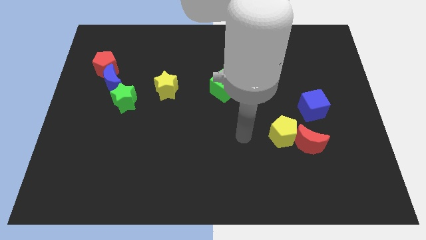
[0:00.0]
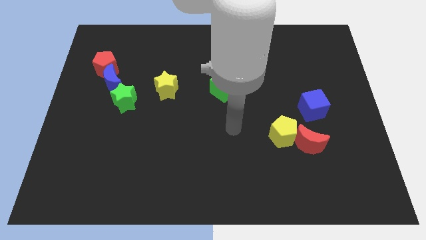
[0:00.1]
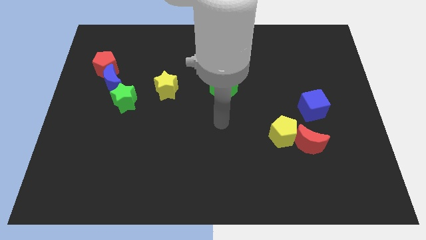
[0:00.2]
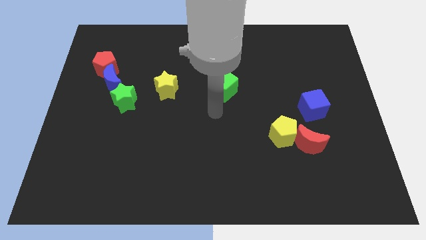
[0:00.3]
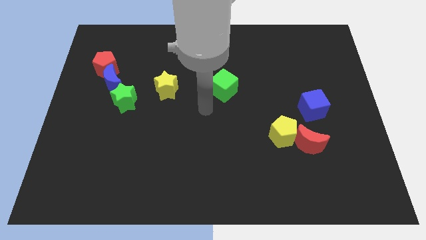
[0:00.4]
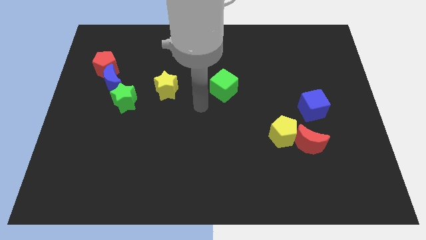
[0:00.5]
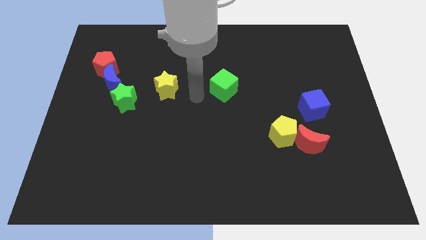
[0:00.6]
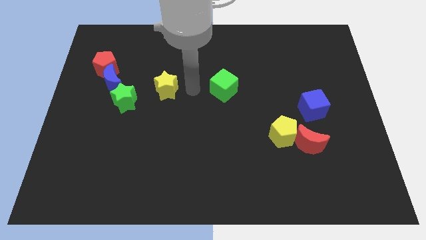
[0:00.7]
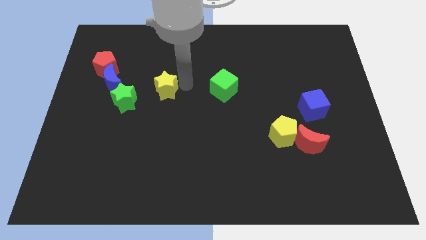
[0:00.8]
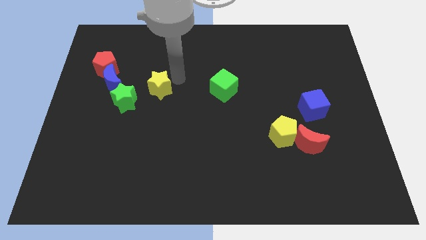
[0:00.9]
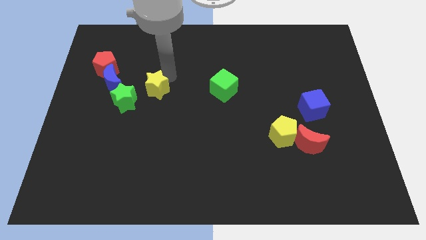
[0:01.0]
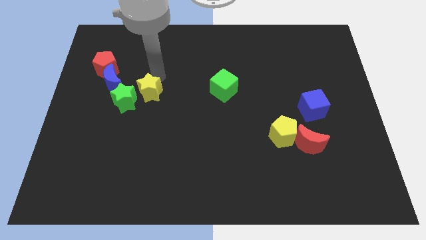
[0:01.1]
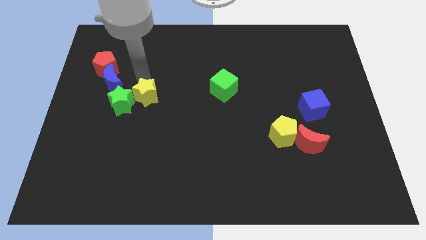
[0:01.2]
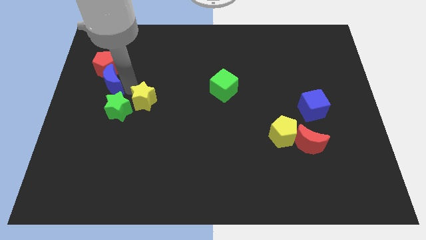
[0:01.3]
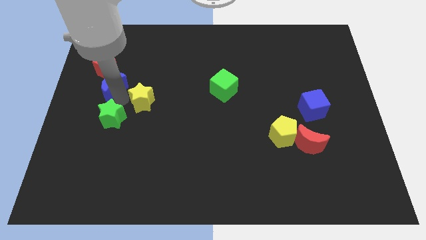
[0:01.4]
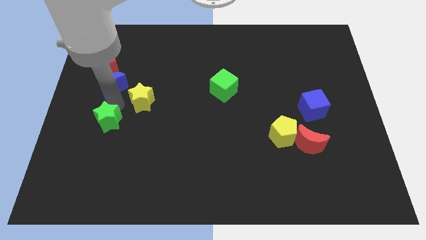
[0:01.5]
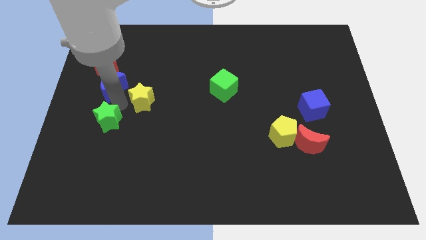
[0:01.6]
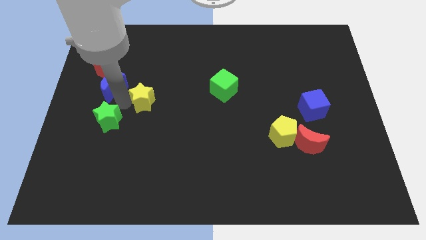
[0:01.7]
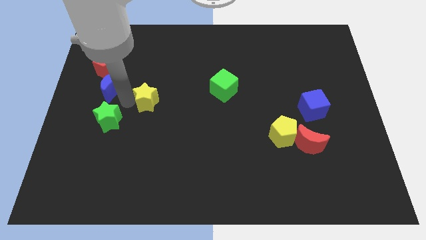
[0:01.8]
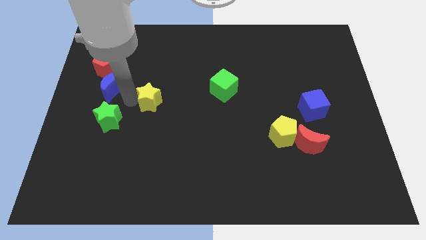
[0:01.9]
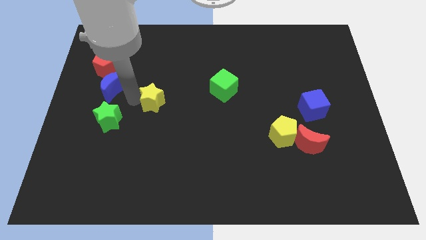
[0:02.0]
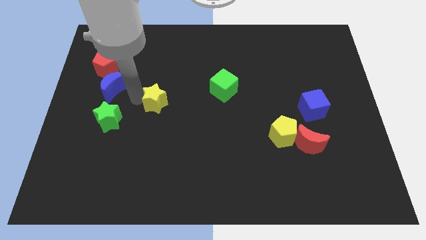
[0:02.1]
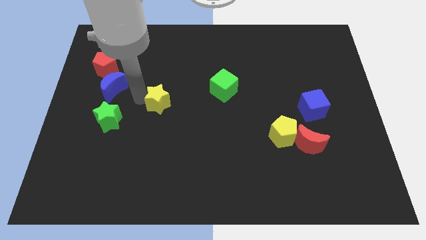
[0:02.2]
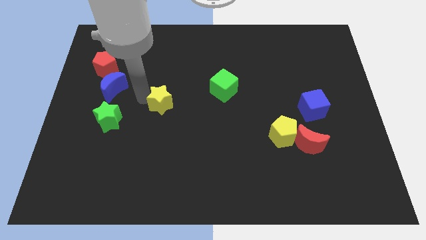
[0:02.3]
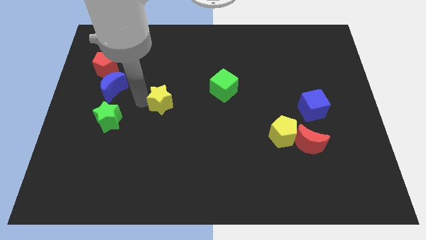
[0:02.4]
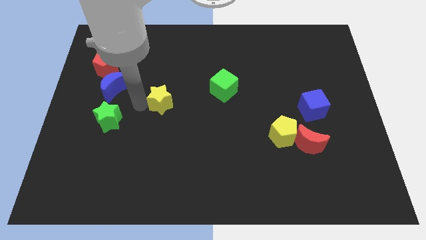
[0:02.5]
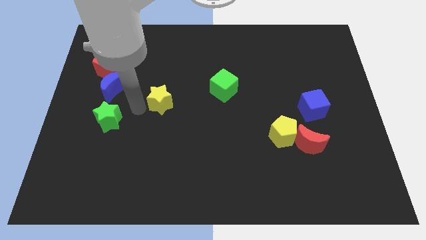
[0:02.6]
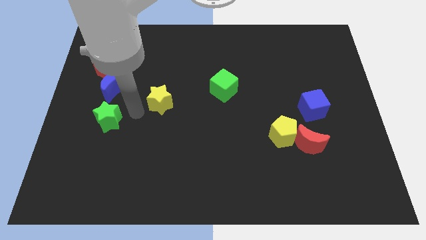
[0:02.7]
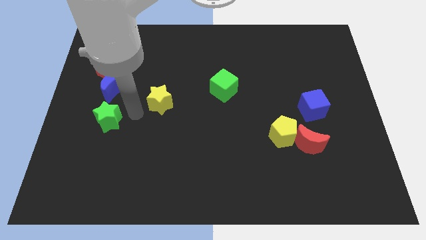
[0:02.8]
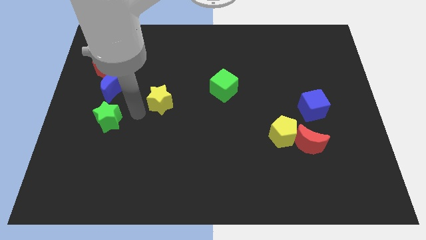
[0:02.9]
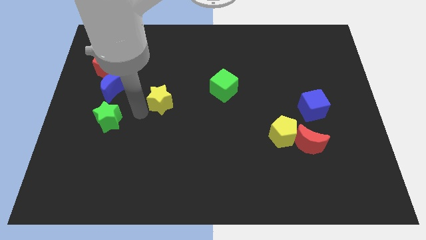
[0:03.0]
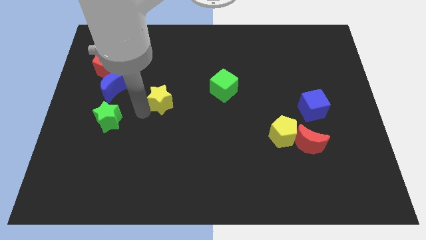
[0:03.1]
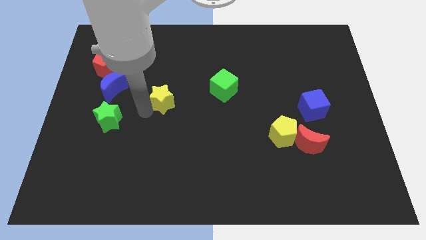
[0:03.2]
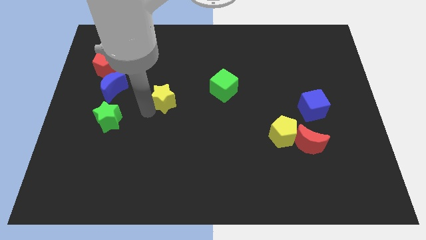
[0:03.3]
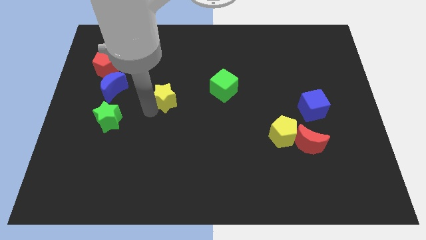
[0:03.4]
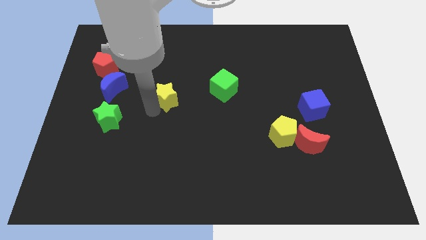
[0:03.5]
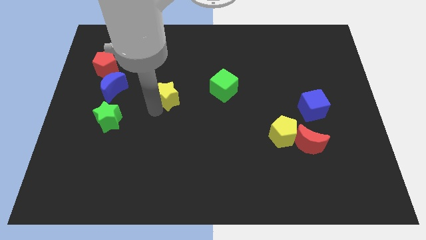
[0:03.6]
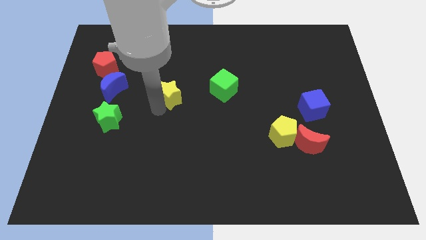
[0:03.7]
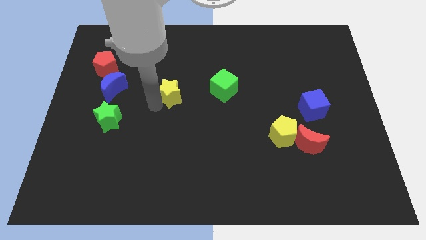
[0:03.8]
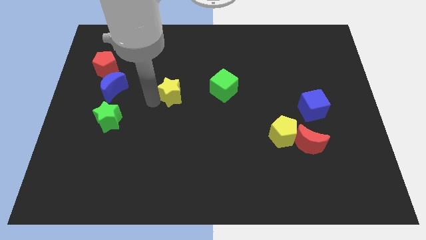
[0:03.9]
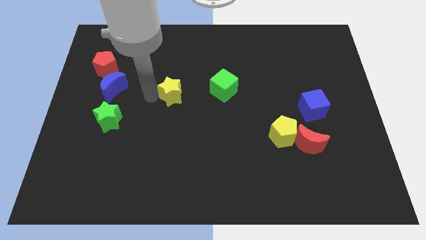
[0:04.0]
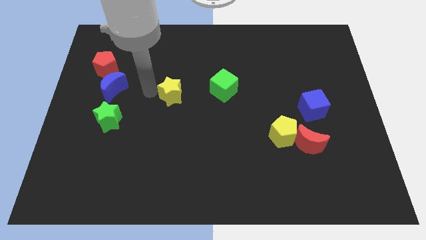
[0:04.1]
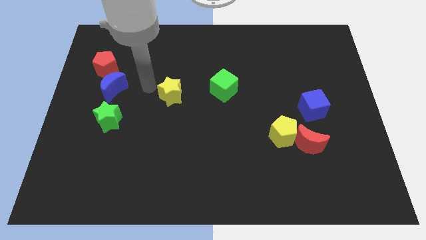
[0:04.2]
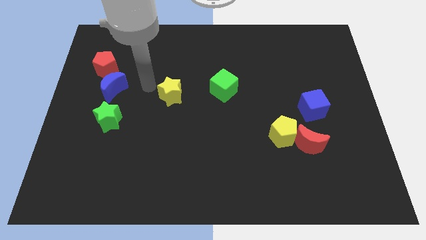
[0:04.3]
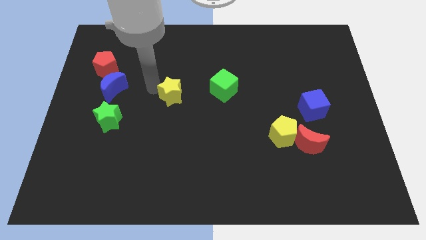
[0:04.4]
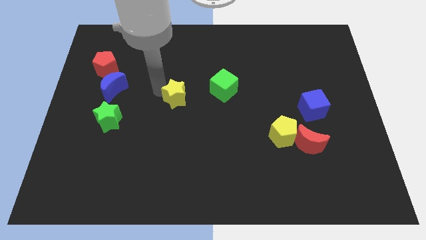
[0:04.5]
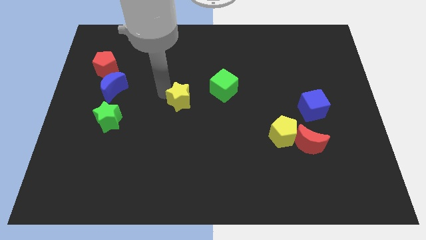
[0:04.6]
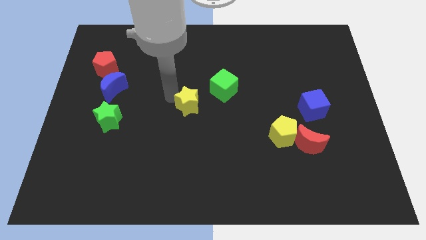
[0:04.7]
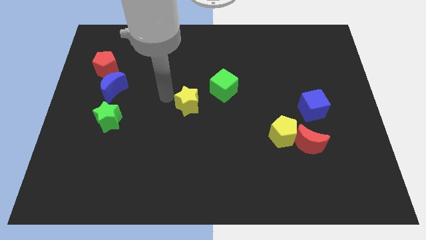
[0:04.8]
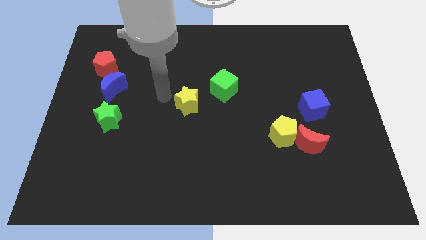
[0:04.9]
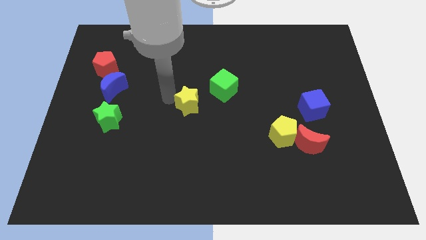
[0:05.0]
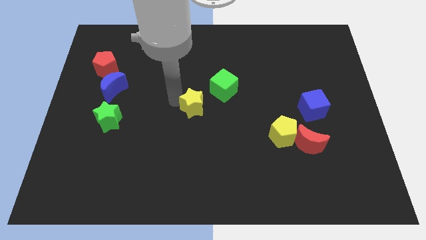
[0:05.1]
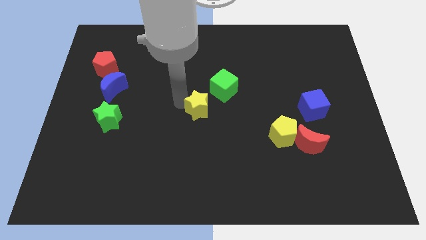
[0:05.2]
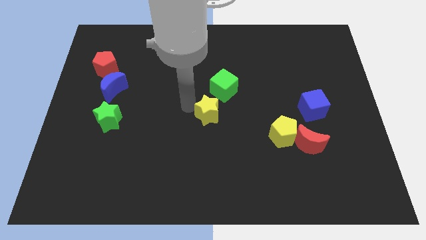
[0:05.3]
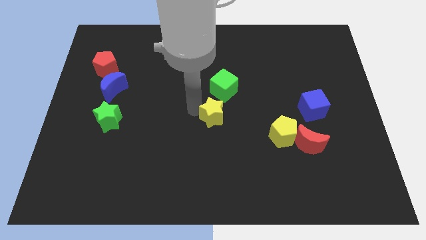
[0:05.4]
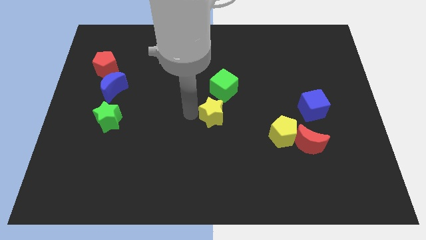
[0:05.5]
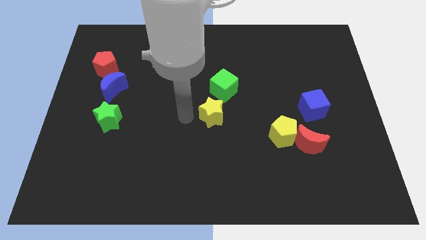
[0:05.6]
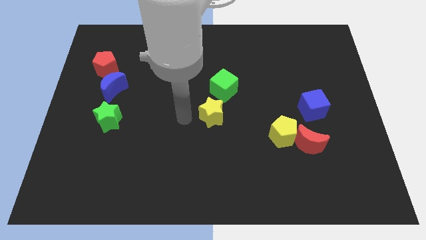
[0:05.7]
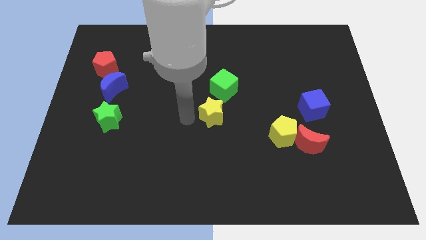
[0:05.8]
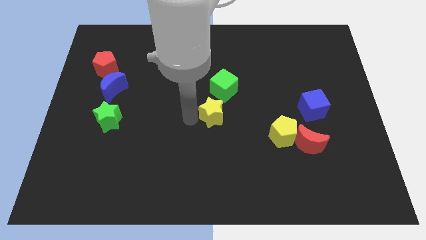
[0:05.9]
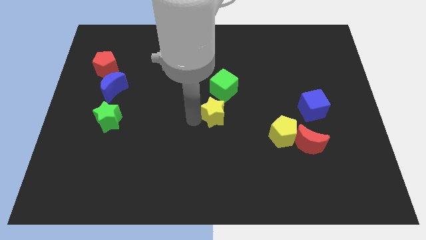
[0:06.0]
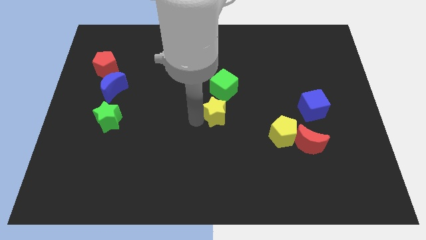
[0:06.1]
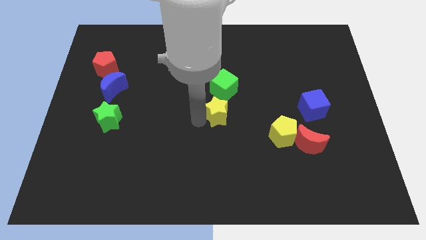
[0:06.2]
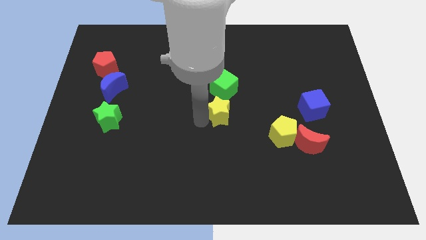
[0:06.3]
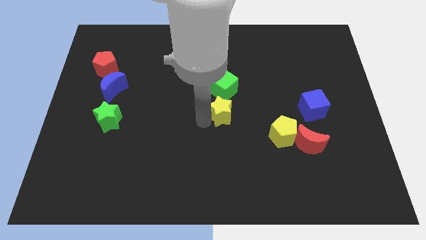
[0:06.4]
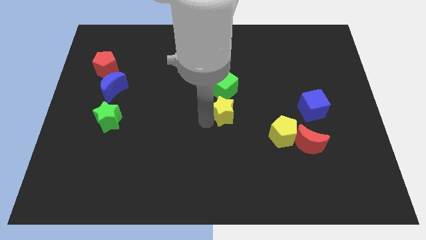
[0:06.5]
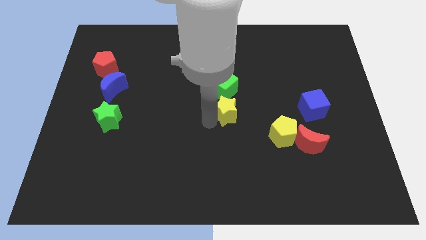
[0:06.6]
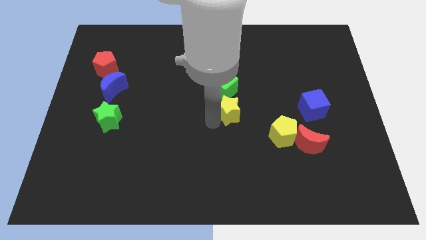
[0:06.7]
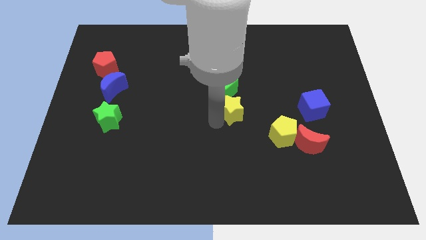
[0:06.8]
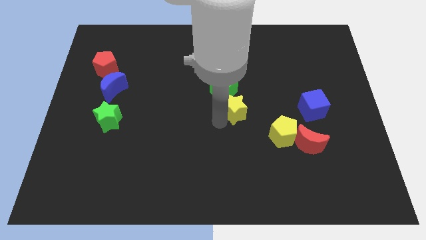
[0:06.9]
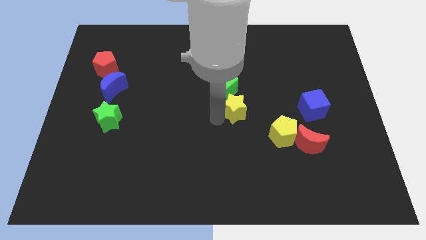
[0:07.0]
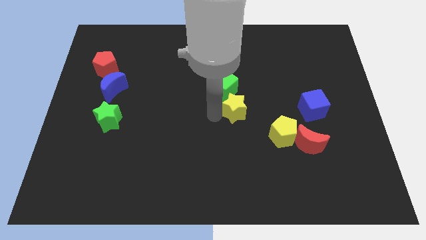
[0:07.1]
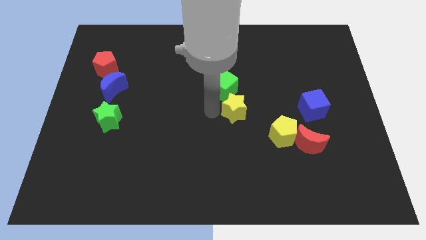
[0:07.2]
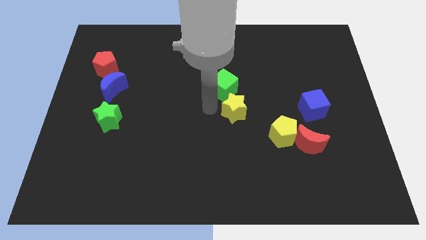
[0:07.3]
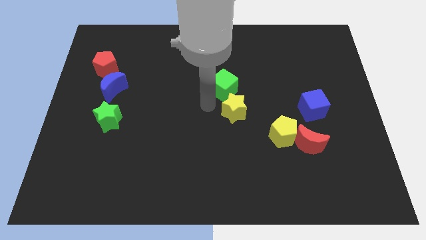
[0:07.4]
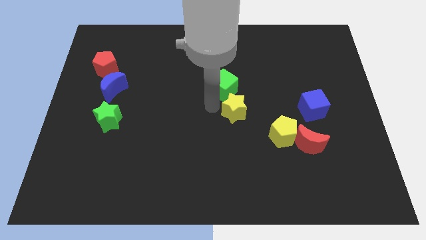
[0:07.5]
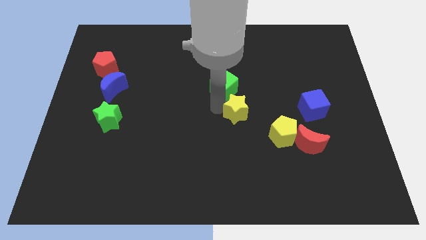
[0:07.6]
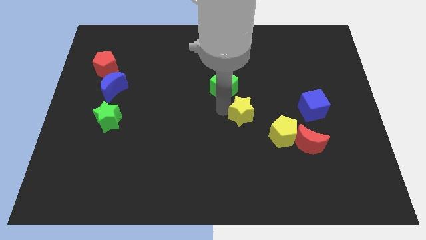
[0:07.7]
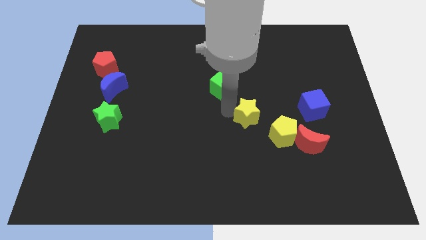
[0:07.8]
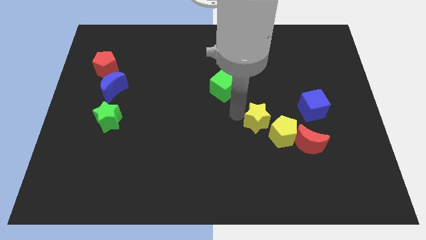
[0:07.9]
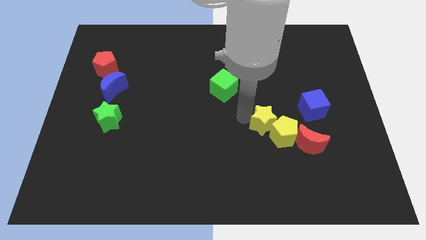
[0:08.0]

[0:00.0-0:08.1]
slide the yellow star to the top left of the red moon
